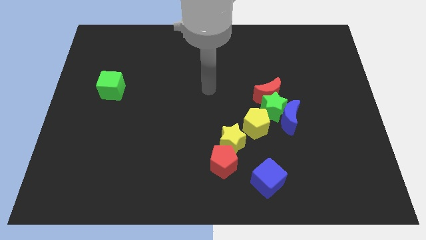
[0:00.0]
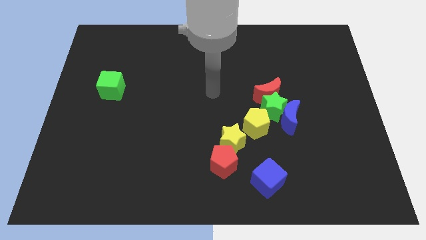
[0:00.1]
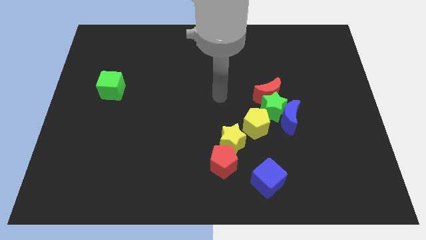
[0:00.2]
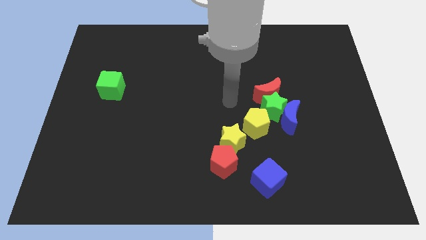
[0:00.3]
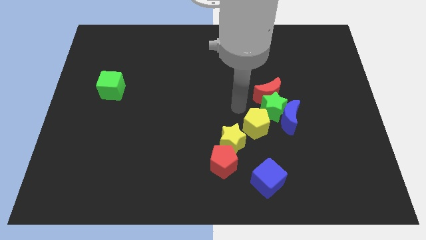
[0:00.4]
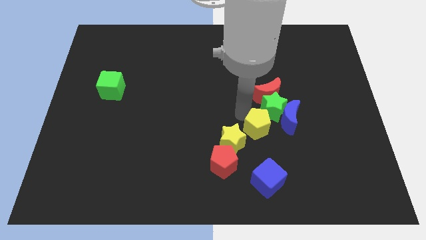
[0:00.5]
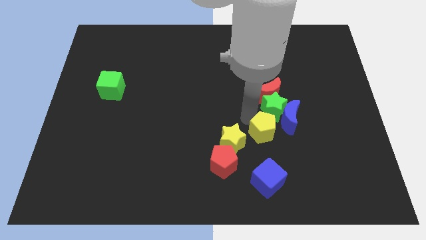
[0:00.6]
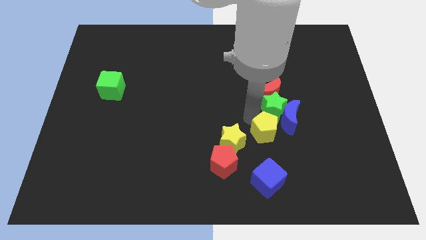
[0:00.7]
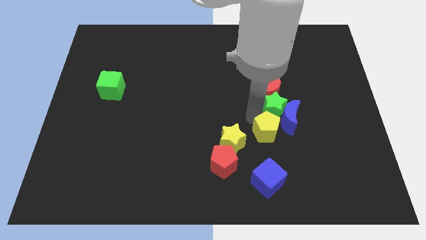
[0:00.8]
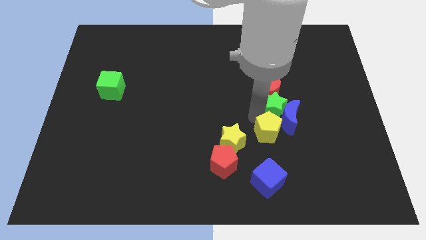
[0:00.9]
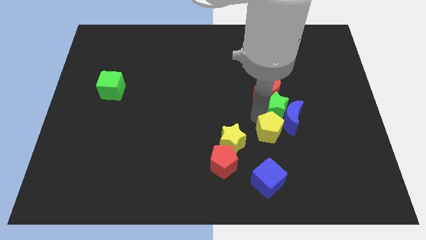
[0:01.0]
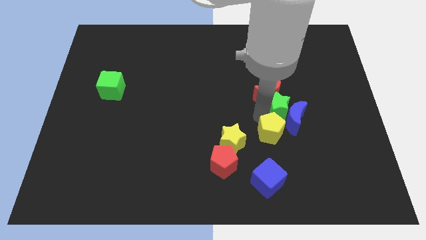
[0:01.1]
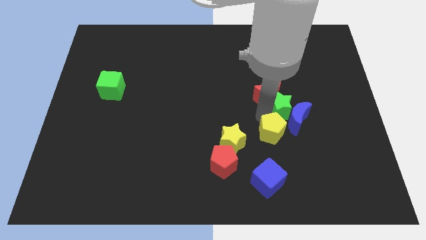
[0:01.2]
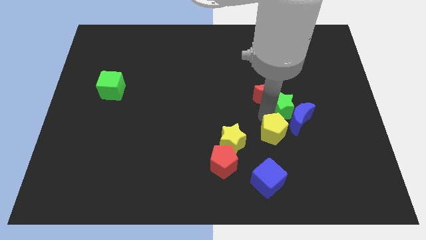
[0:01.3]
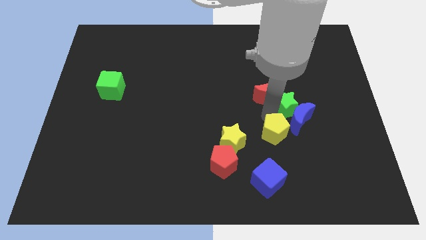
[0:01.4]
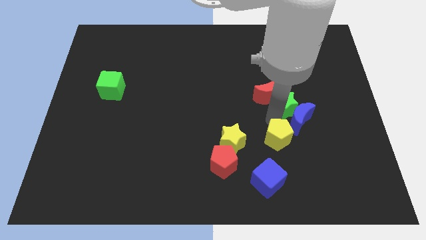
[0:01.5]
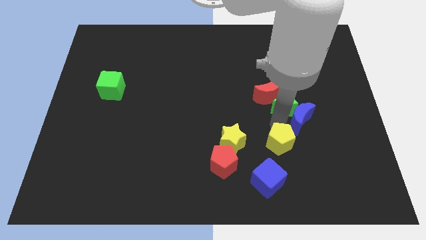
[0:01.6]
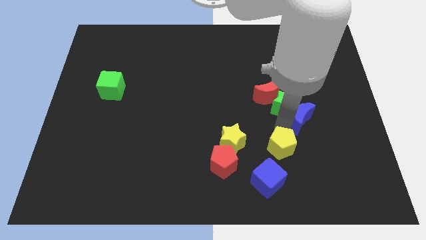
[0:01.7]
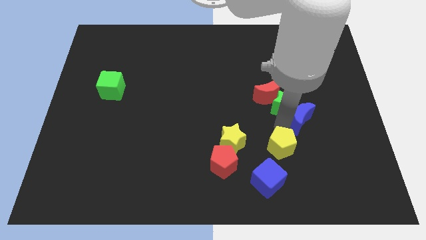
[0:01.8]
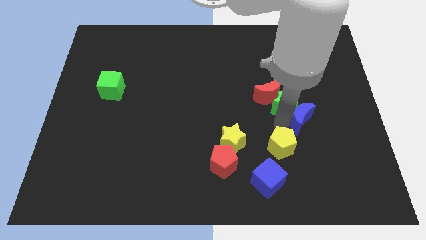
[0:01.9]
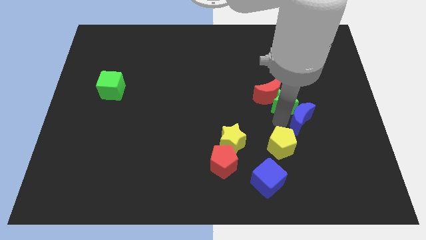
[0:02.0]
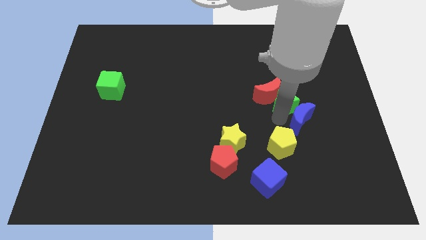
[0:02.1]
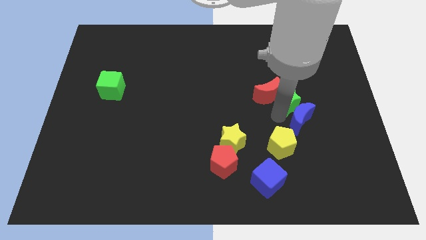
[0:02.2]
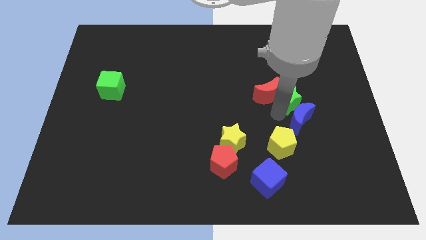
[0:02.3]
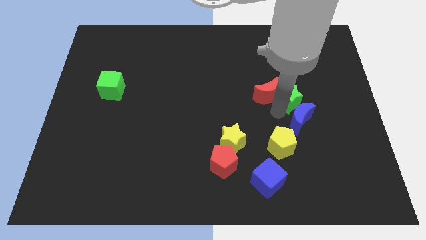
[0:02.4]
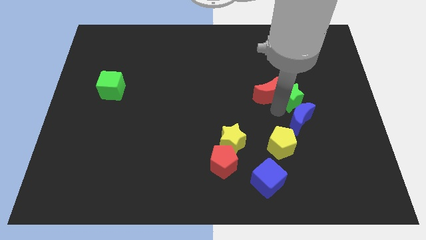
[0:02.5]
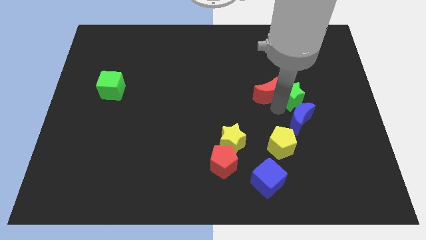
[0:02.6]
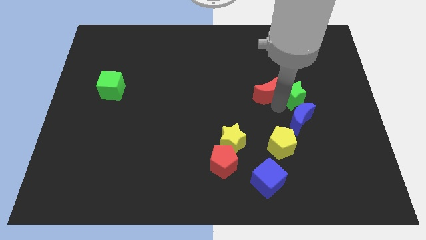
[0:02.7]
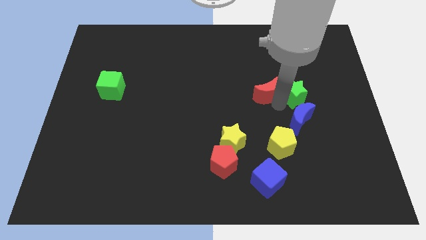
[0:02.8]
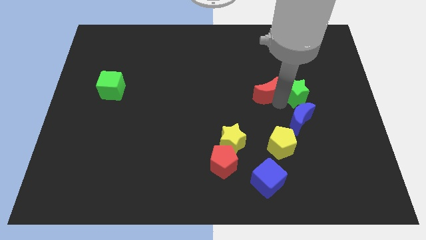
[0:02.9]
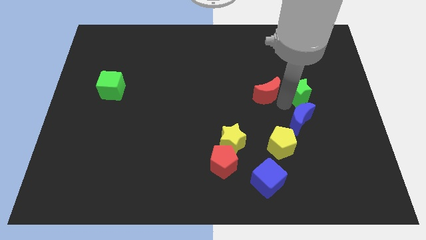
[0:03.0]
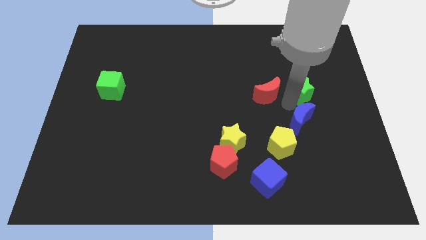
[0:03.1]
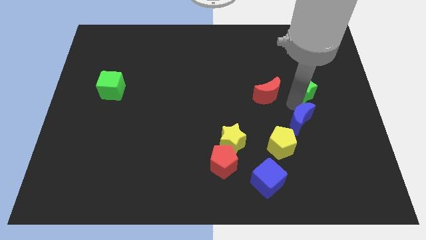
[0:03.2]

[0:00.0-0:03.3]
move the green star away from the red moon, blue moon, and yellow pentagon

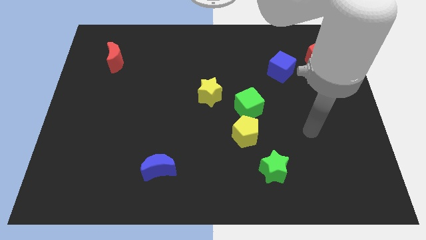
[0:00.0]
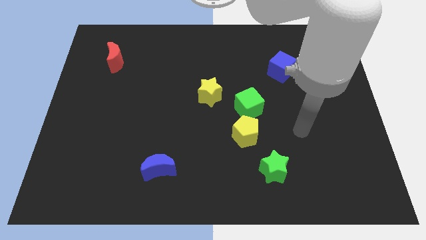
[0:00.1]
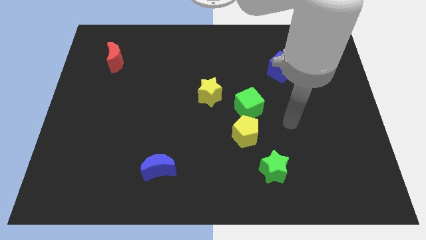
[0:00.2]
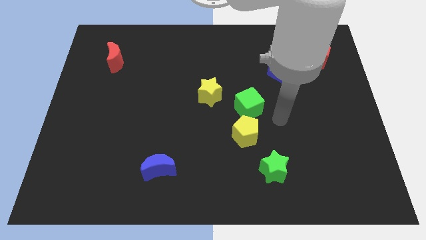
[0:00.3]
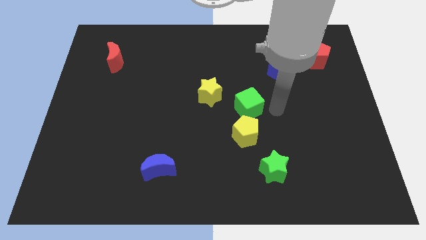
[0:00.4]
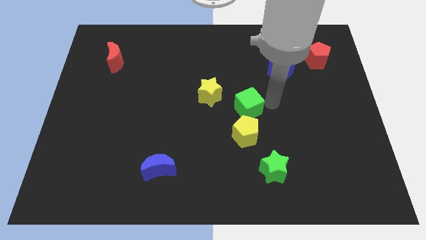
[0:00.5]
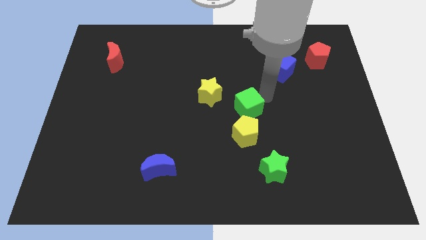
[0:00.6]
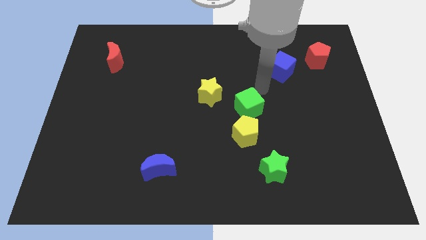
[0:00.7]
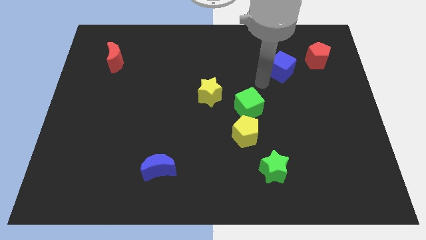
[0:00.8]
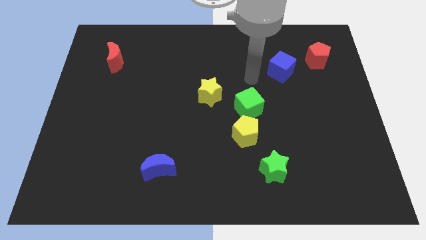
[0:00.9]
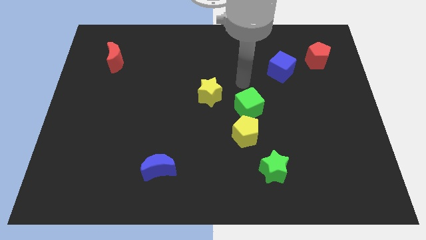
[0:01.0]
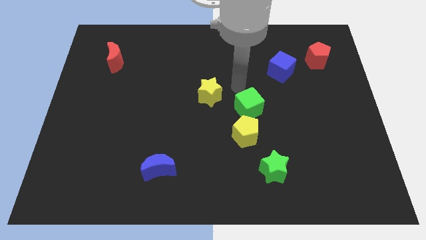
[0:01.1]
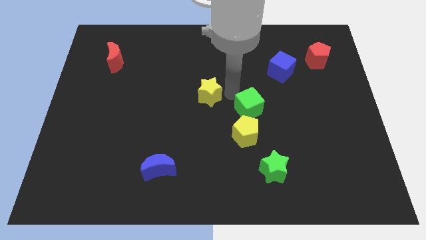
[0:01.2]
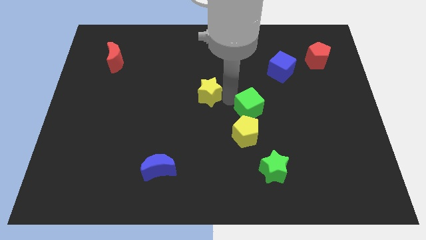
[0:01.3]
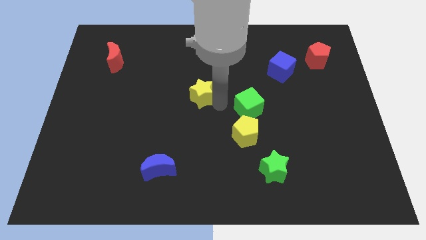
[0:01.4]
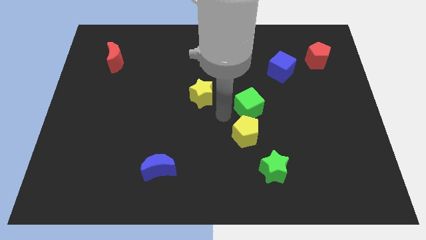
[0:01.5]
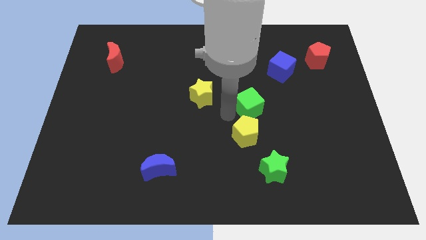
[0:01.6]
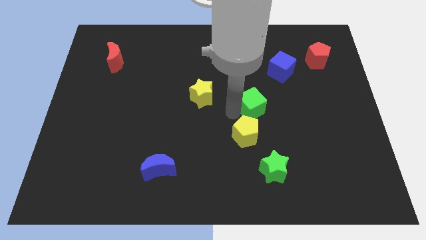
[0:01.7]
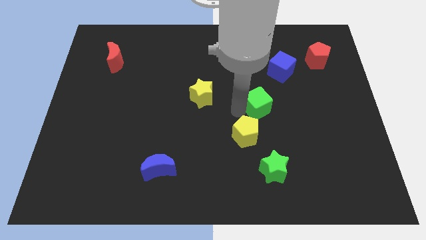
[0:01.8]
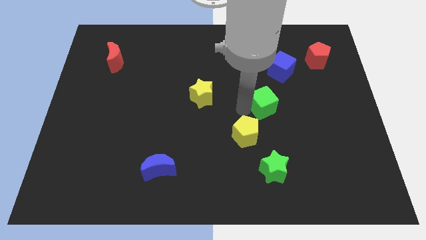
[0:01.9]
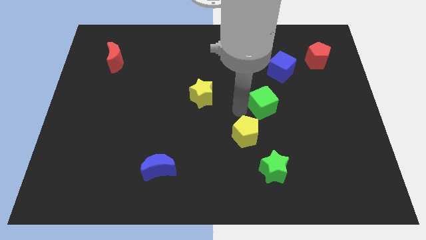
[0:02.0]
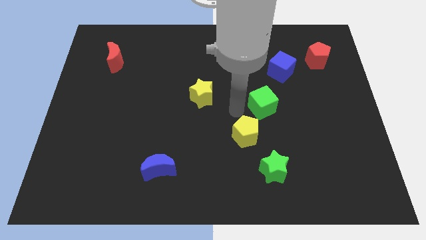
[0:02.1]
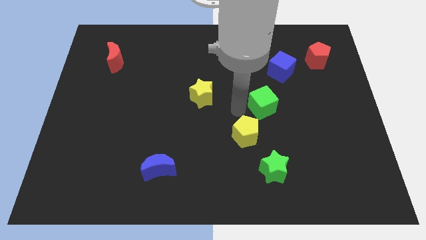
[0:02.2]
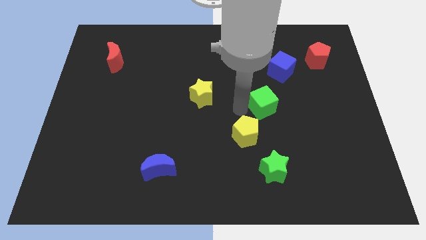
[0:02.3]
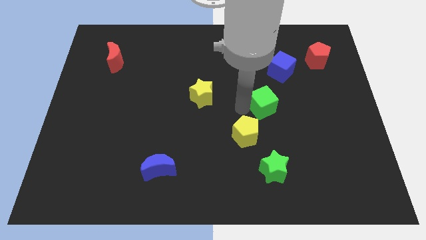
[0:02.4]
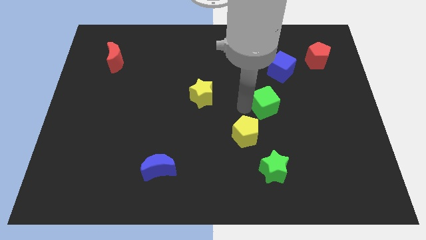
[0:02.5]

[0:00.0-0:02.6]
separate the green cube from the yellow pentagon and yellow star

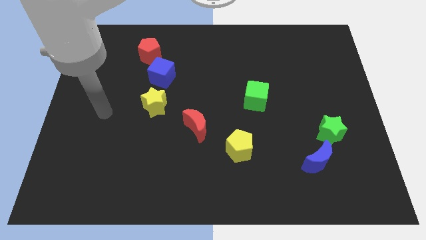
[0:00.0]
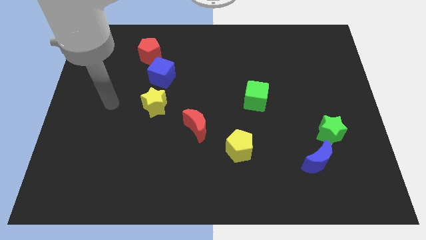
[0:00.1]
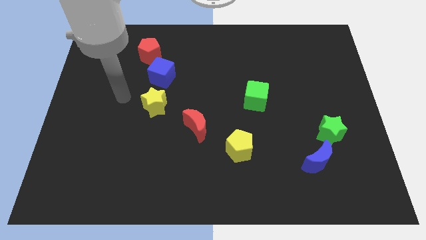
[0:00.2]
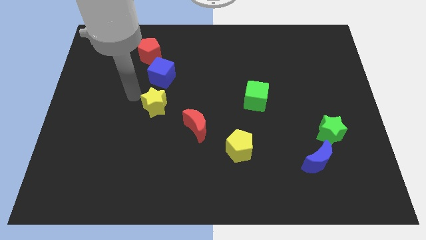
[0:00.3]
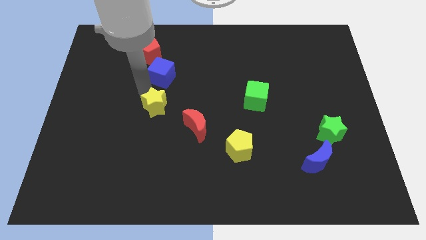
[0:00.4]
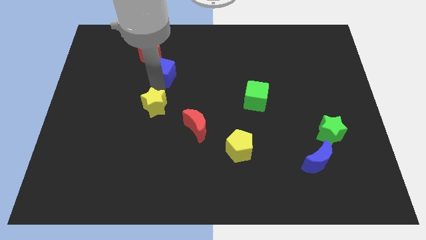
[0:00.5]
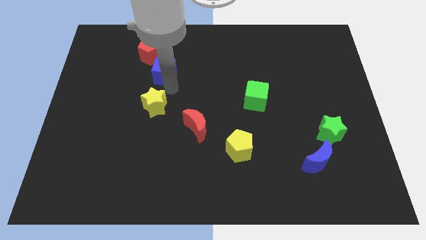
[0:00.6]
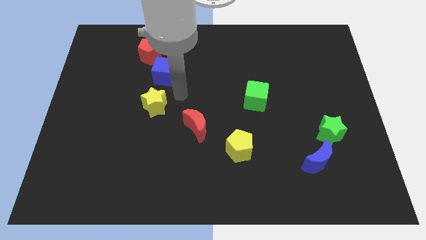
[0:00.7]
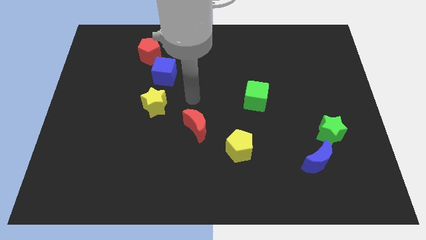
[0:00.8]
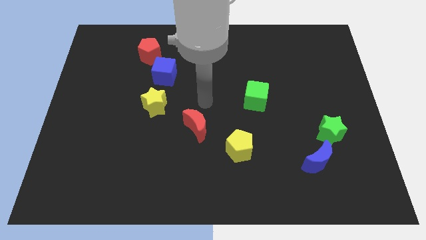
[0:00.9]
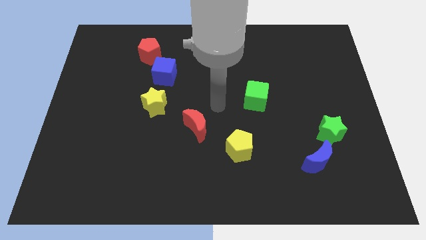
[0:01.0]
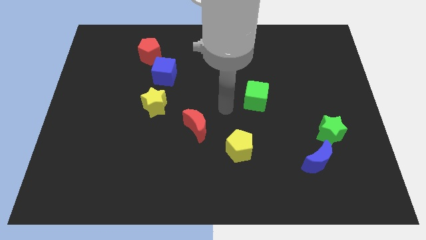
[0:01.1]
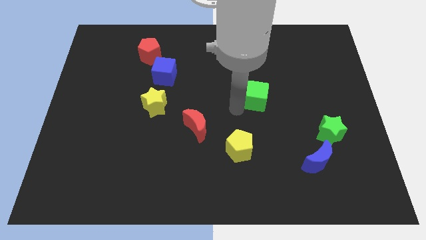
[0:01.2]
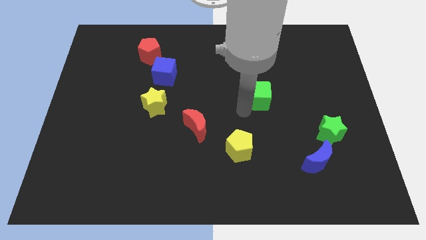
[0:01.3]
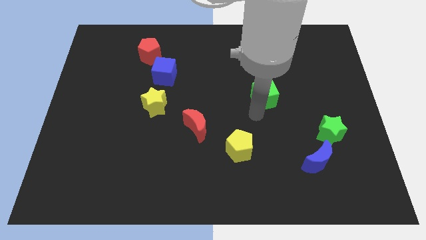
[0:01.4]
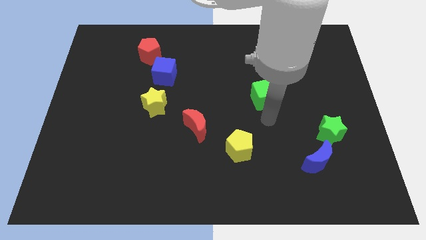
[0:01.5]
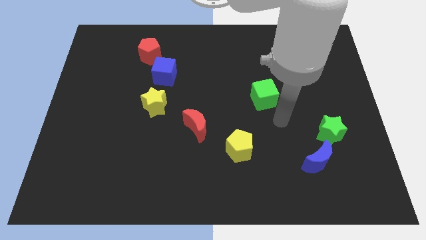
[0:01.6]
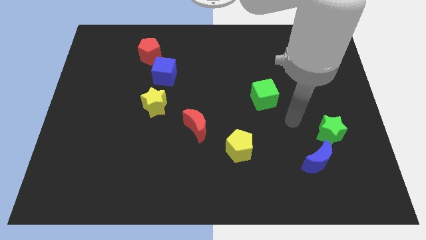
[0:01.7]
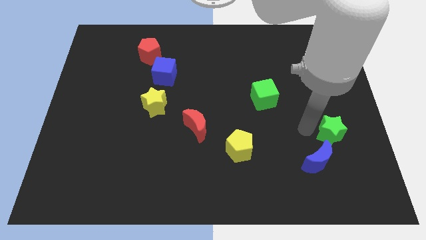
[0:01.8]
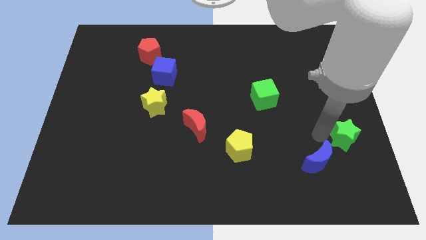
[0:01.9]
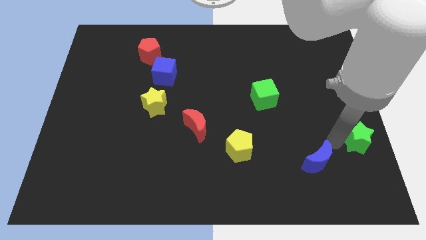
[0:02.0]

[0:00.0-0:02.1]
separate the blue moon from the green star

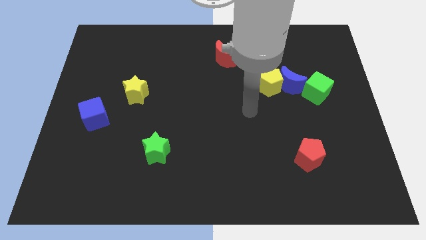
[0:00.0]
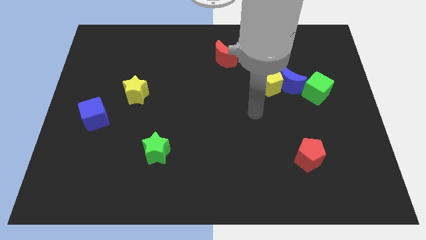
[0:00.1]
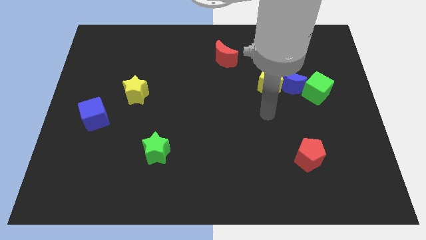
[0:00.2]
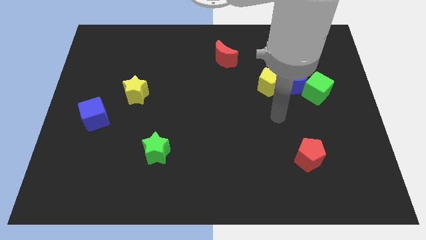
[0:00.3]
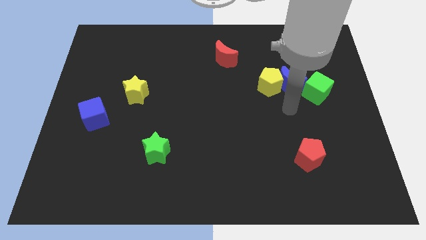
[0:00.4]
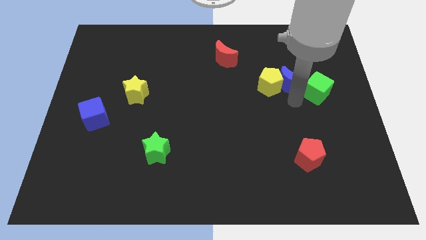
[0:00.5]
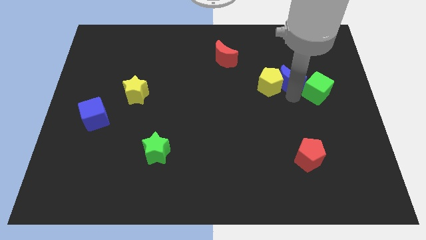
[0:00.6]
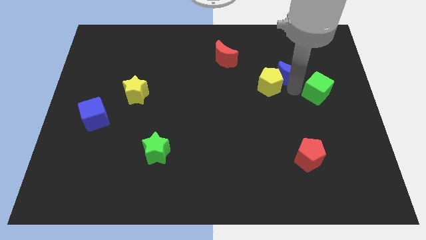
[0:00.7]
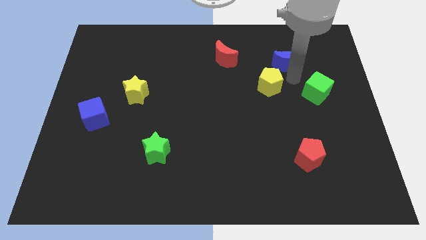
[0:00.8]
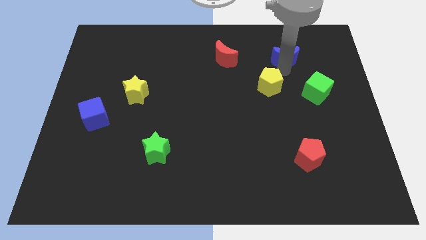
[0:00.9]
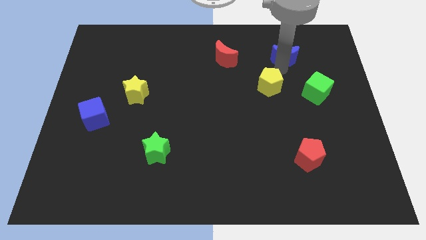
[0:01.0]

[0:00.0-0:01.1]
move the yellow pentagon away from the blue moon

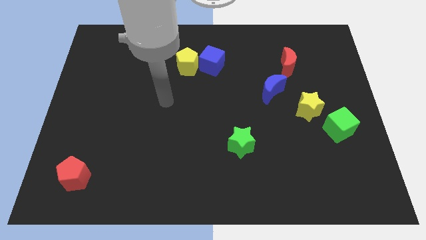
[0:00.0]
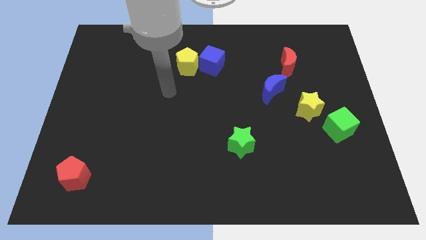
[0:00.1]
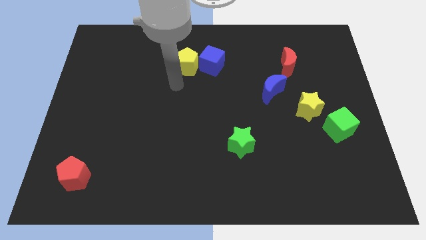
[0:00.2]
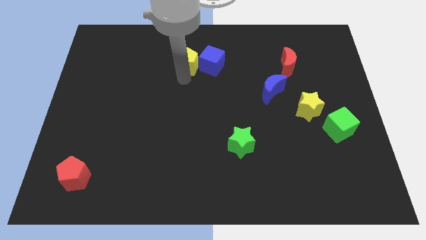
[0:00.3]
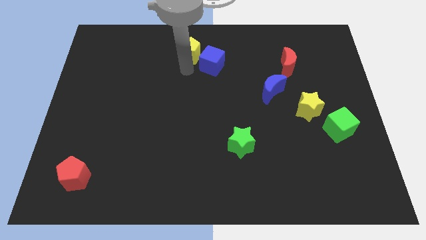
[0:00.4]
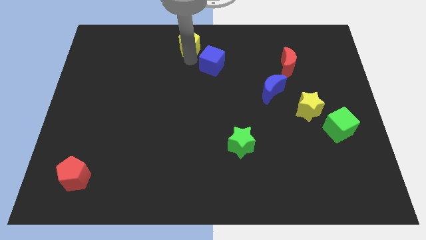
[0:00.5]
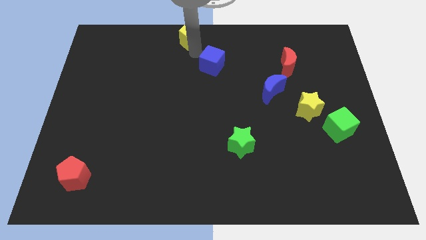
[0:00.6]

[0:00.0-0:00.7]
separate the blue cube from the yellow pentagon
